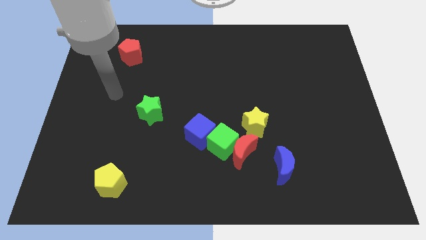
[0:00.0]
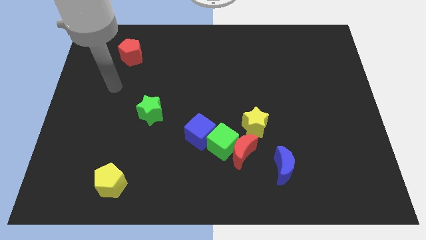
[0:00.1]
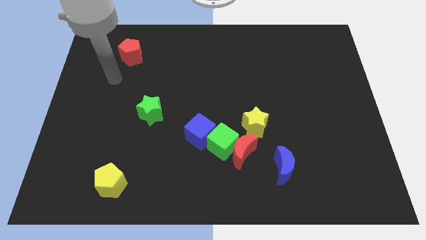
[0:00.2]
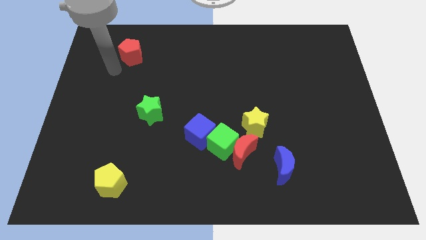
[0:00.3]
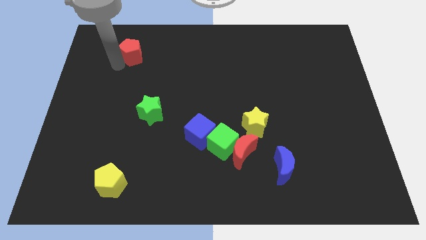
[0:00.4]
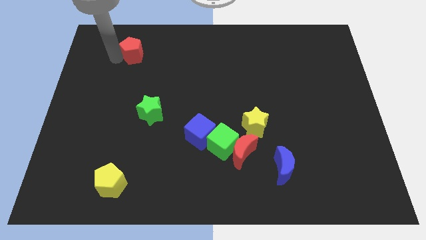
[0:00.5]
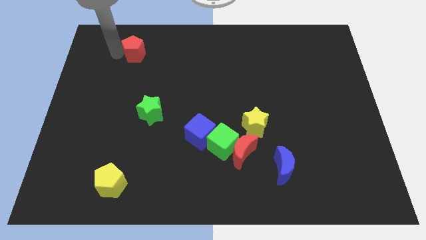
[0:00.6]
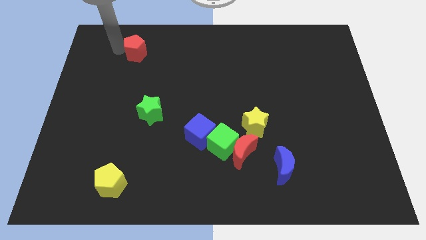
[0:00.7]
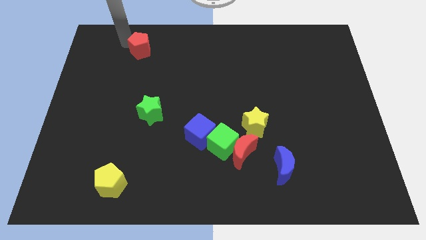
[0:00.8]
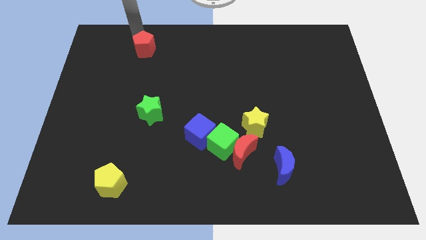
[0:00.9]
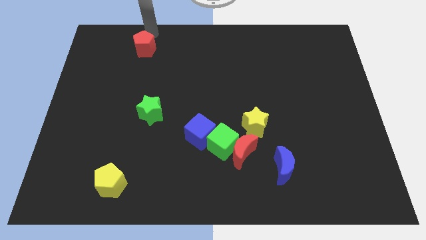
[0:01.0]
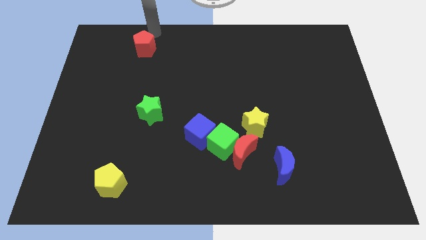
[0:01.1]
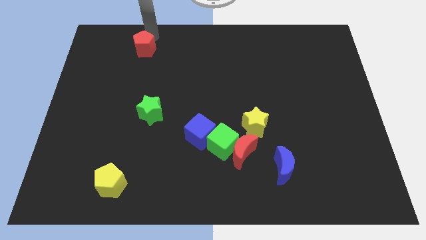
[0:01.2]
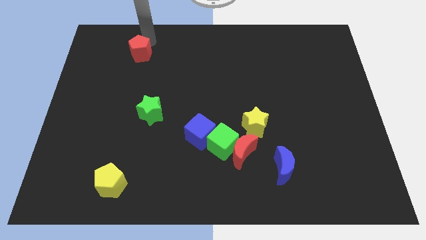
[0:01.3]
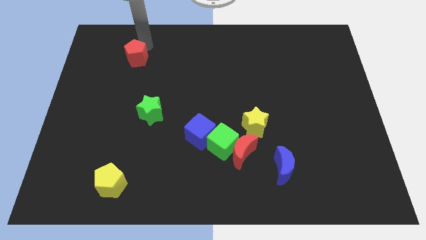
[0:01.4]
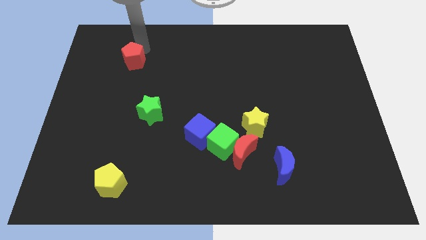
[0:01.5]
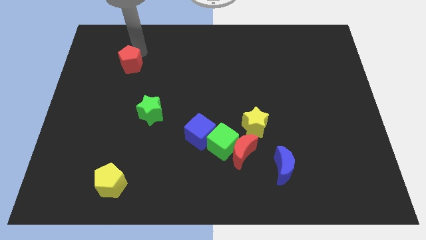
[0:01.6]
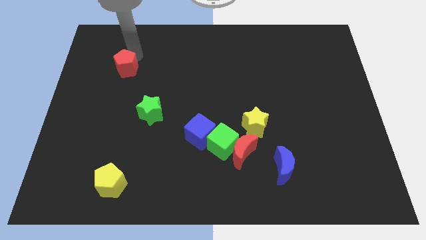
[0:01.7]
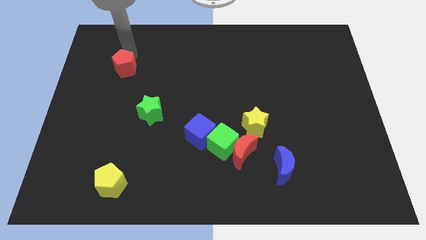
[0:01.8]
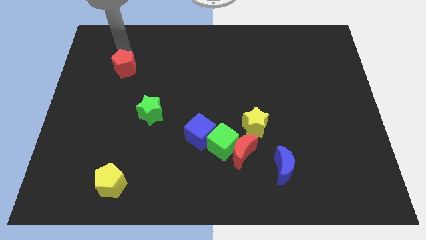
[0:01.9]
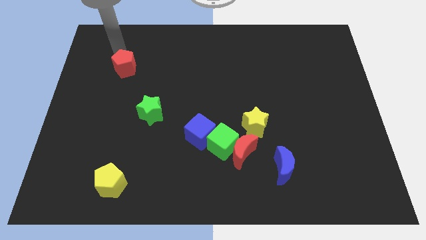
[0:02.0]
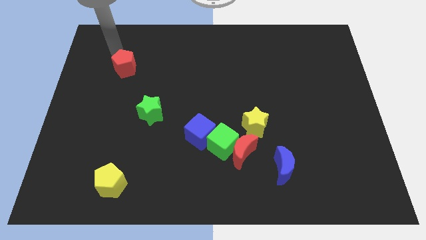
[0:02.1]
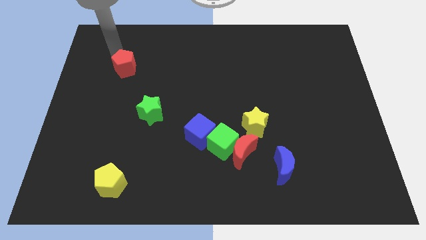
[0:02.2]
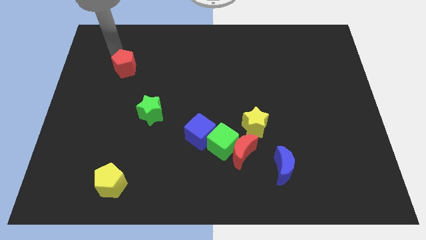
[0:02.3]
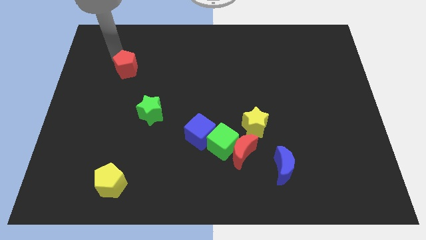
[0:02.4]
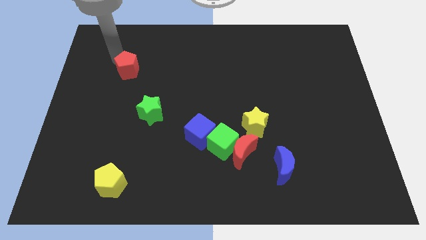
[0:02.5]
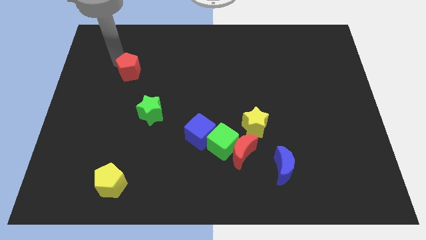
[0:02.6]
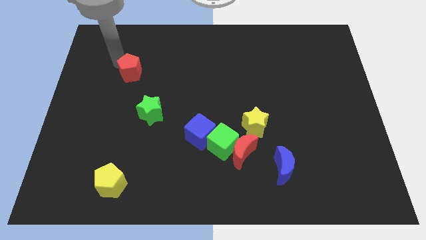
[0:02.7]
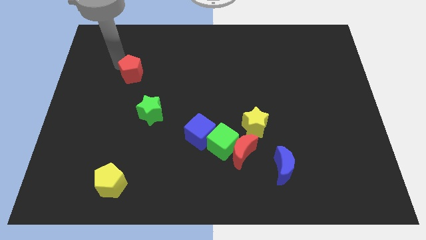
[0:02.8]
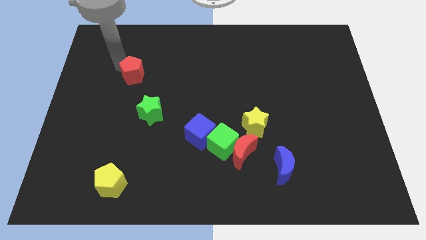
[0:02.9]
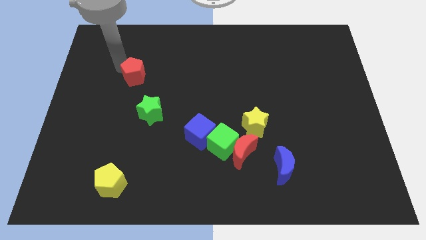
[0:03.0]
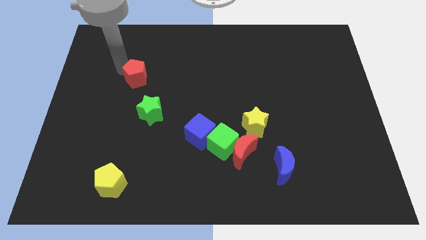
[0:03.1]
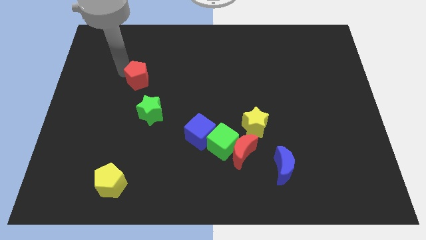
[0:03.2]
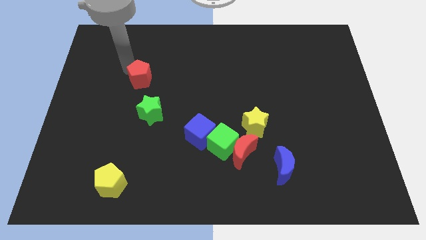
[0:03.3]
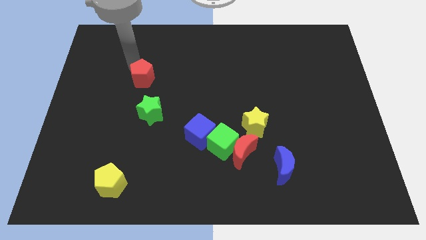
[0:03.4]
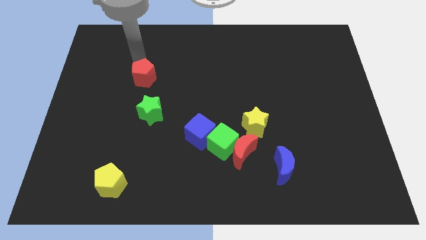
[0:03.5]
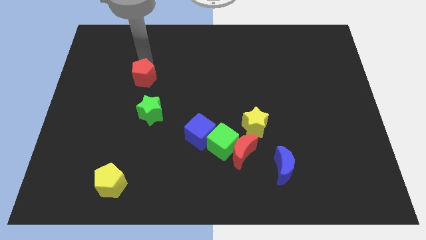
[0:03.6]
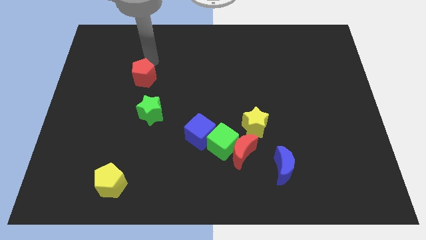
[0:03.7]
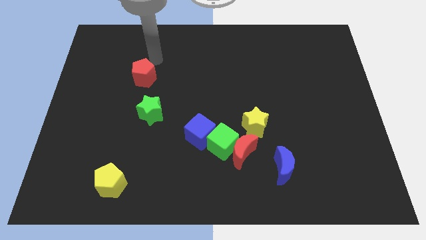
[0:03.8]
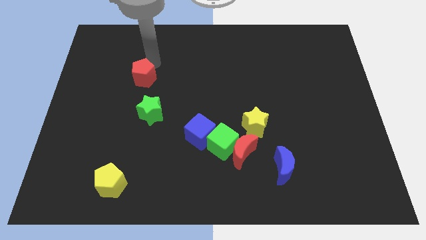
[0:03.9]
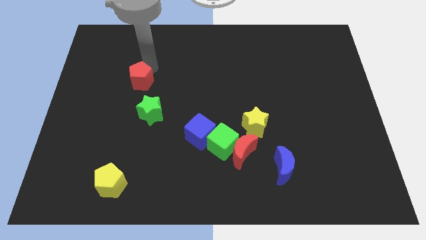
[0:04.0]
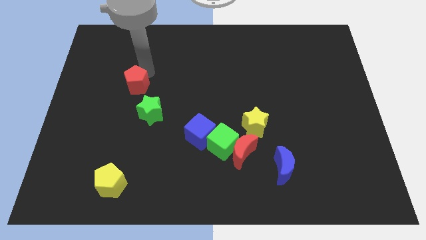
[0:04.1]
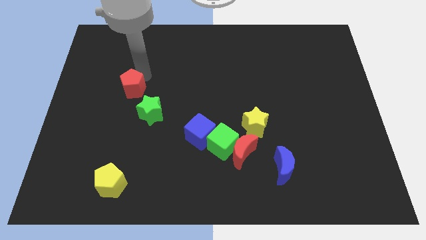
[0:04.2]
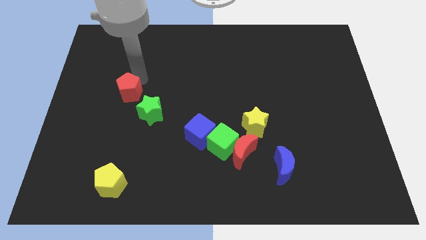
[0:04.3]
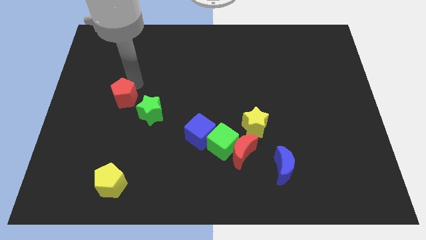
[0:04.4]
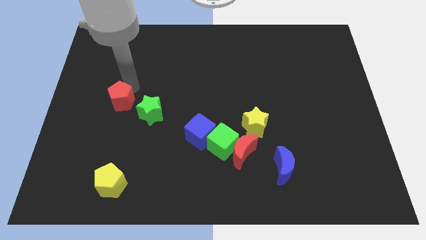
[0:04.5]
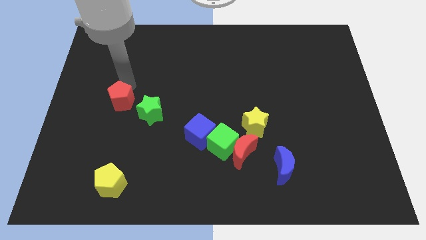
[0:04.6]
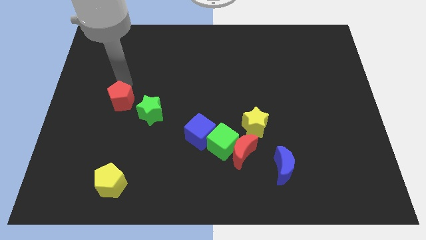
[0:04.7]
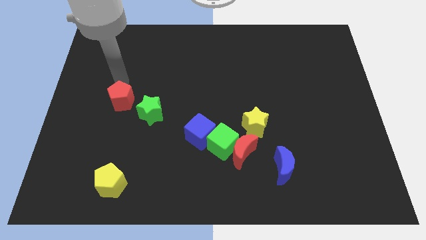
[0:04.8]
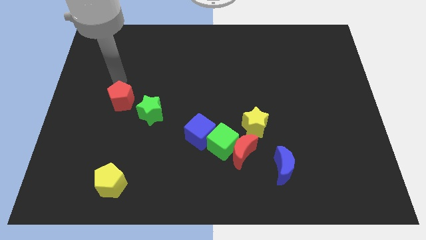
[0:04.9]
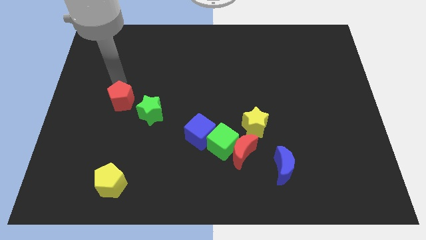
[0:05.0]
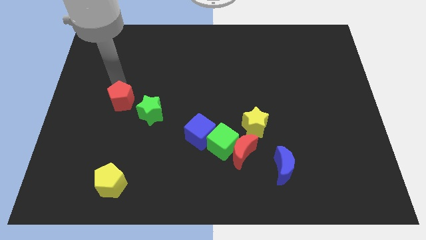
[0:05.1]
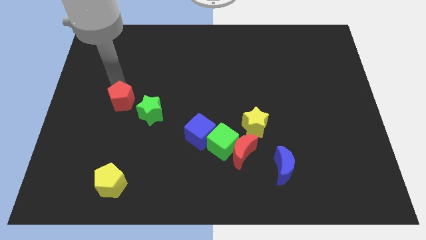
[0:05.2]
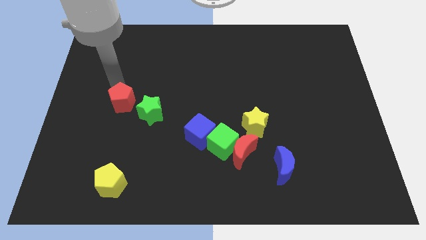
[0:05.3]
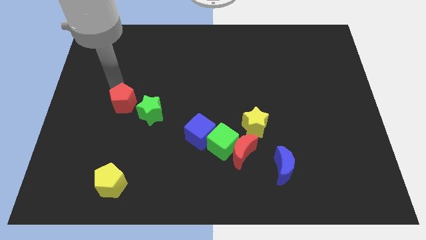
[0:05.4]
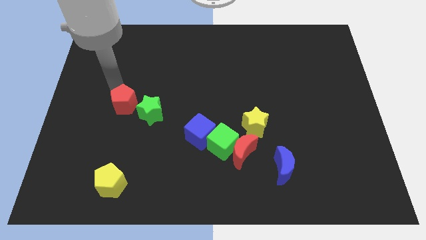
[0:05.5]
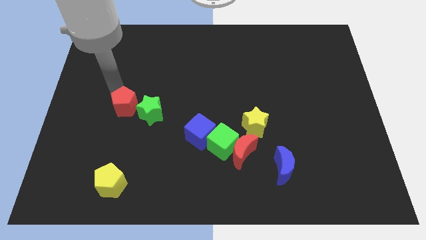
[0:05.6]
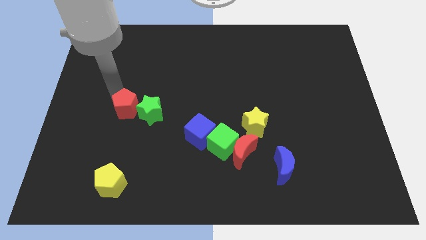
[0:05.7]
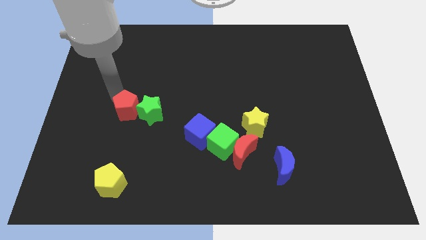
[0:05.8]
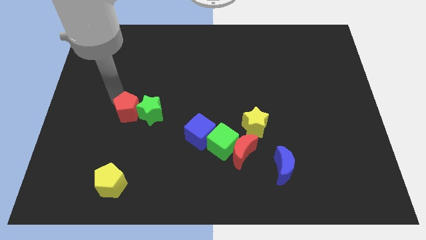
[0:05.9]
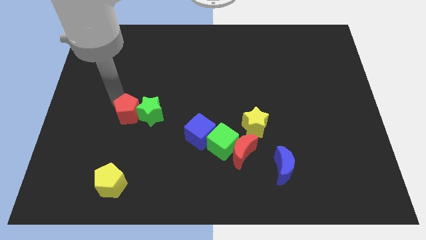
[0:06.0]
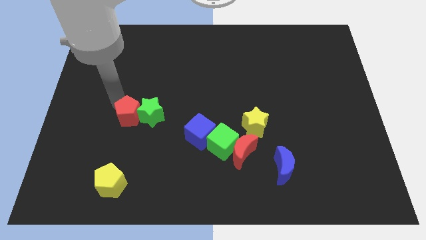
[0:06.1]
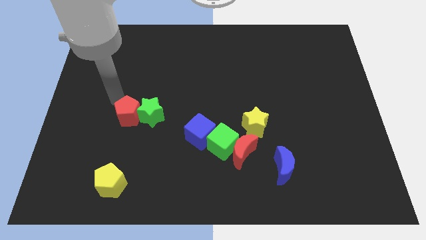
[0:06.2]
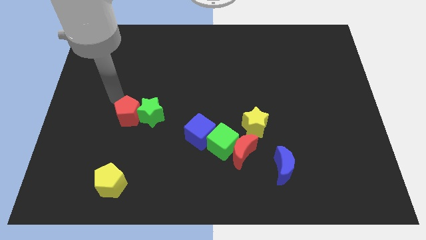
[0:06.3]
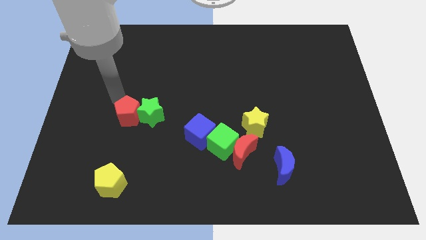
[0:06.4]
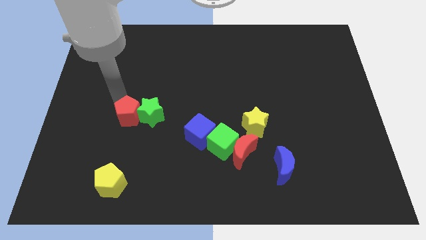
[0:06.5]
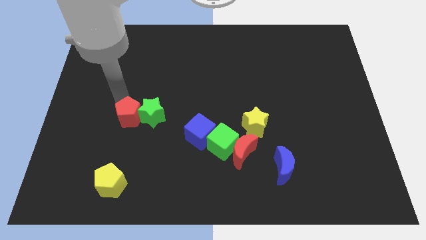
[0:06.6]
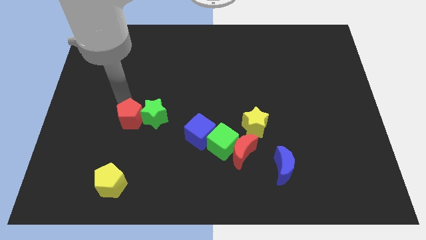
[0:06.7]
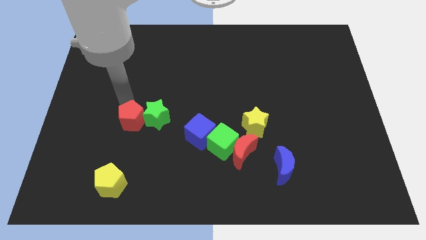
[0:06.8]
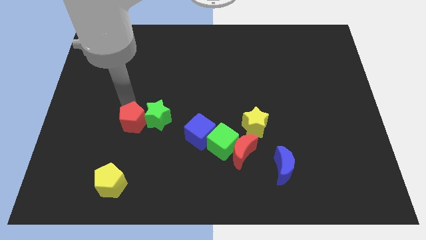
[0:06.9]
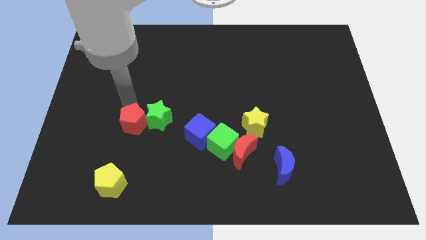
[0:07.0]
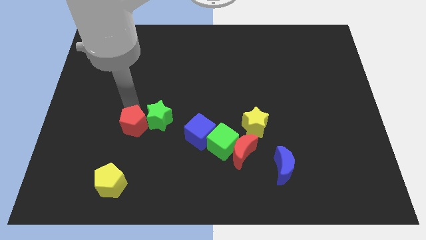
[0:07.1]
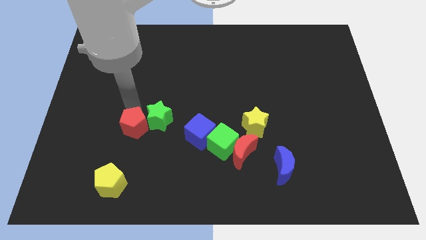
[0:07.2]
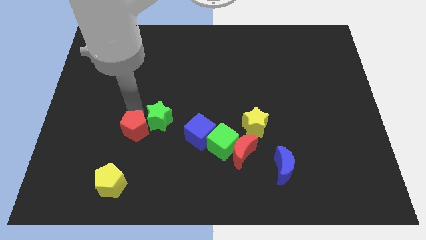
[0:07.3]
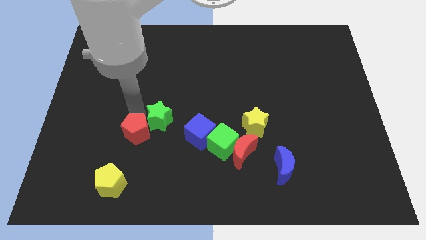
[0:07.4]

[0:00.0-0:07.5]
slide the red pentagon below the green star
